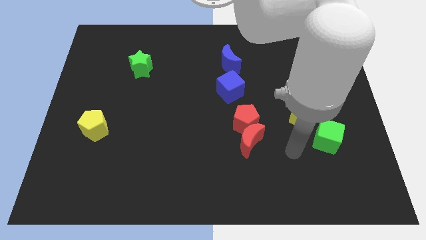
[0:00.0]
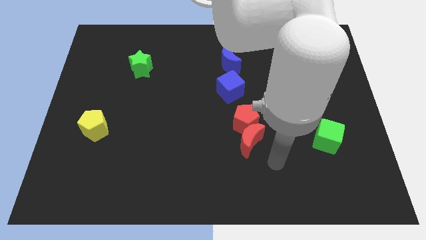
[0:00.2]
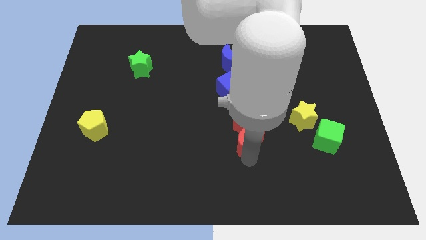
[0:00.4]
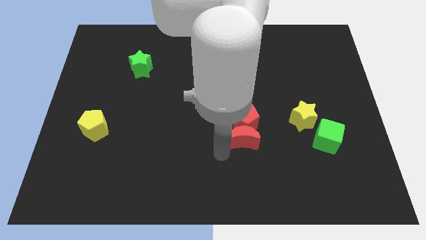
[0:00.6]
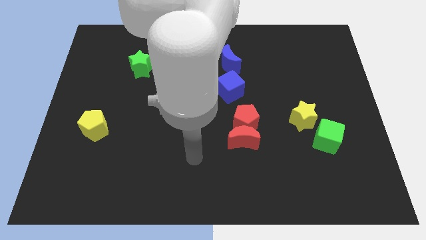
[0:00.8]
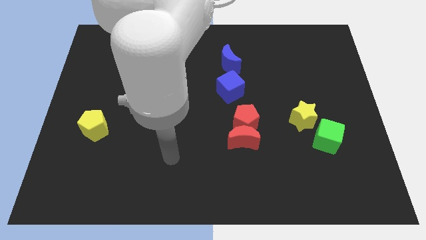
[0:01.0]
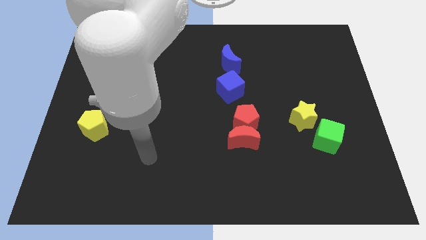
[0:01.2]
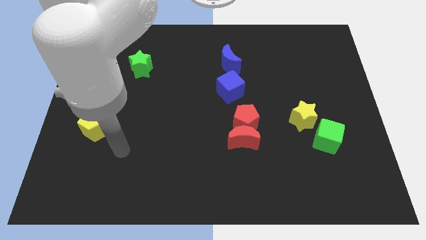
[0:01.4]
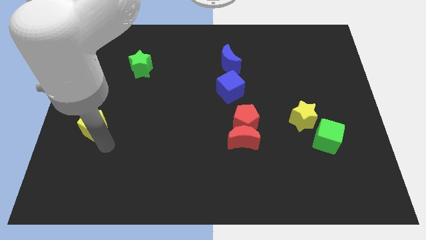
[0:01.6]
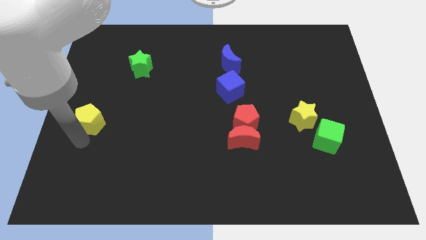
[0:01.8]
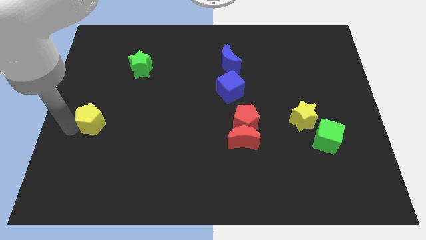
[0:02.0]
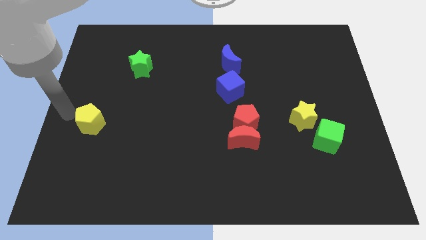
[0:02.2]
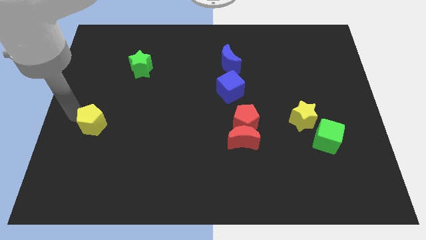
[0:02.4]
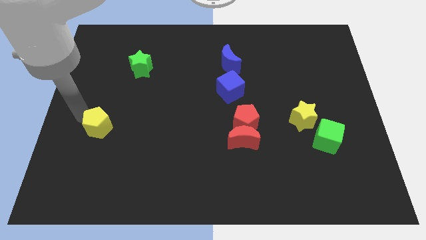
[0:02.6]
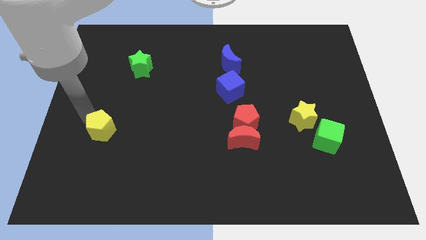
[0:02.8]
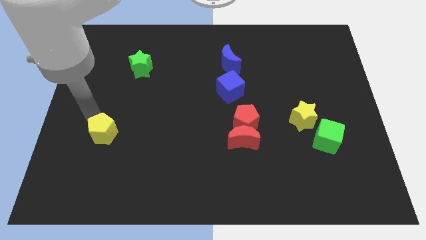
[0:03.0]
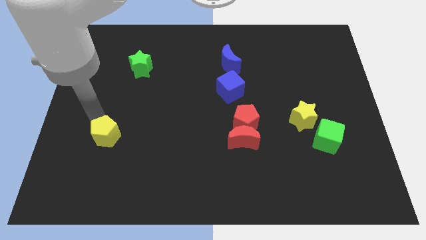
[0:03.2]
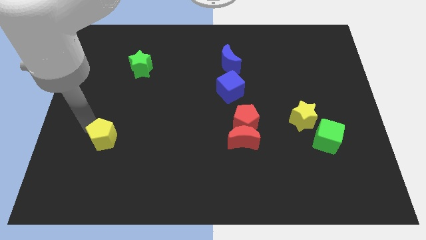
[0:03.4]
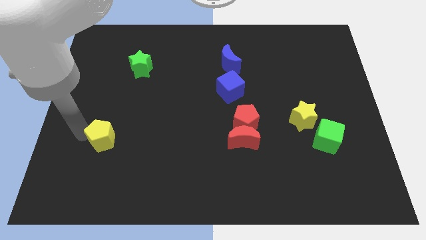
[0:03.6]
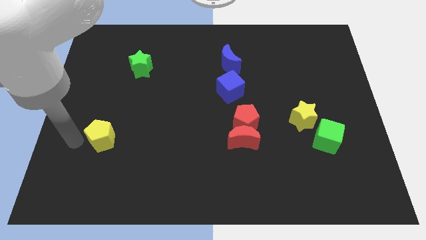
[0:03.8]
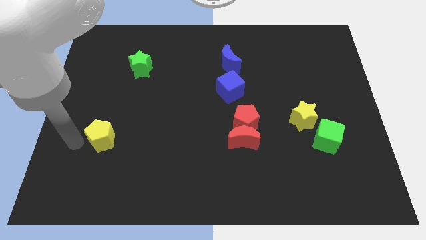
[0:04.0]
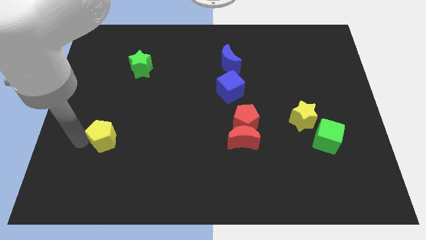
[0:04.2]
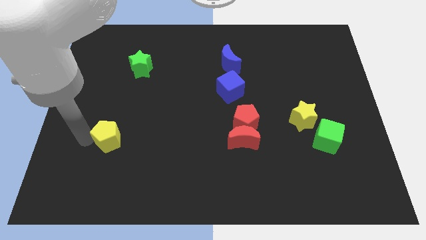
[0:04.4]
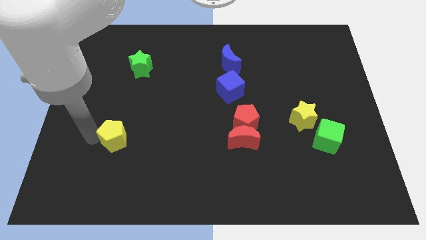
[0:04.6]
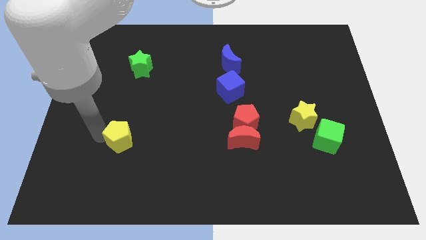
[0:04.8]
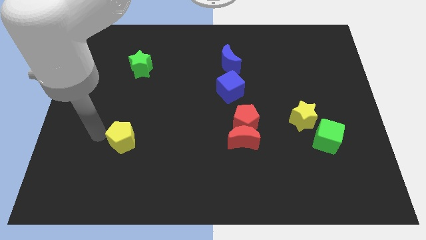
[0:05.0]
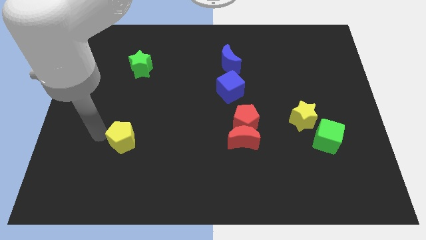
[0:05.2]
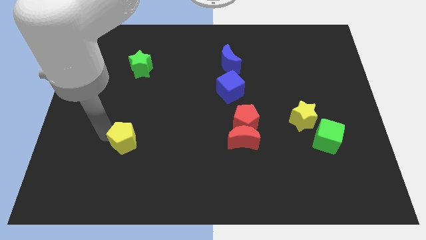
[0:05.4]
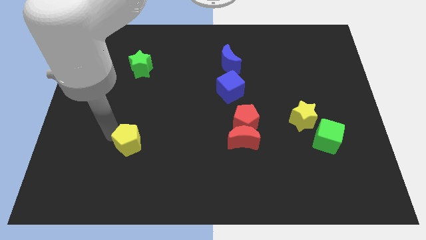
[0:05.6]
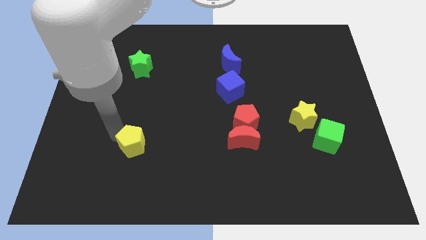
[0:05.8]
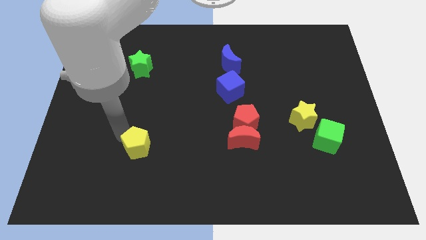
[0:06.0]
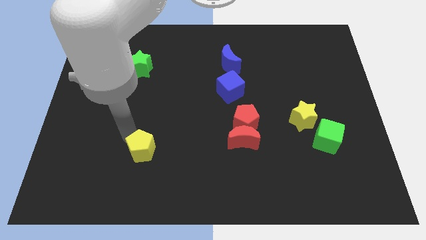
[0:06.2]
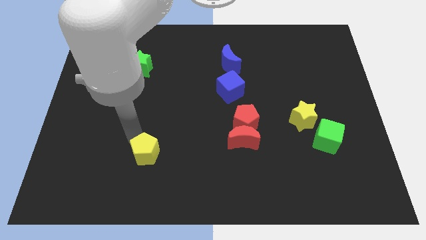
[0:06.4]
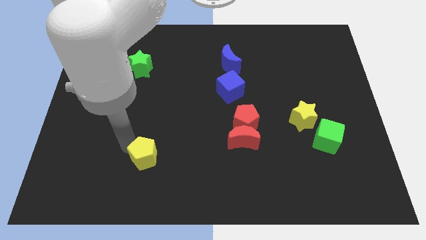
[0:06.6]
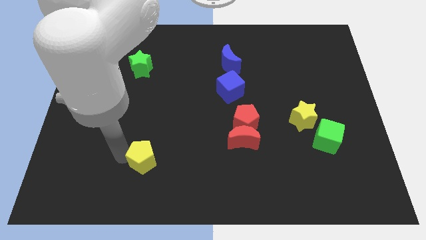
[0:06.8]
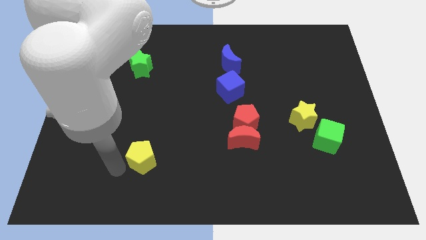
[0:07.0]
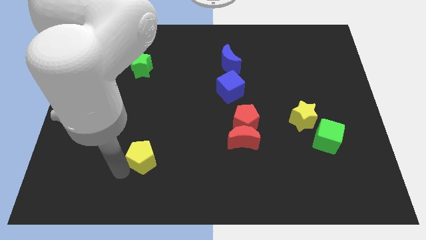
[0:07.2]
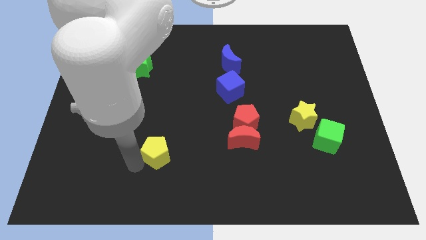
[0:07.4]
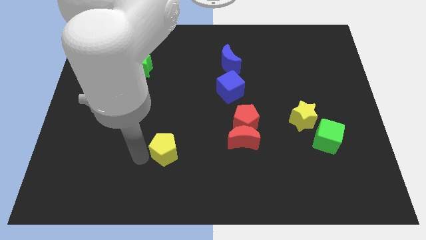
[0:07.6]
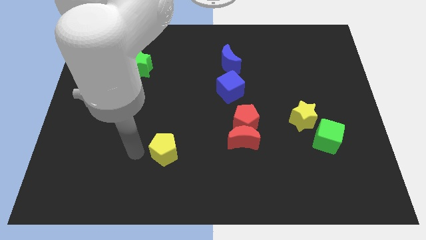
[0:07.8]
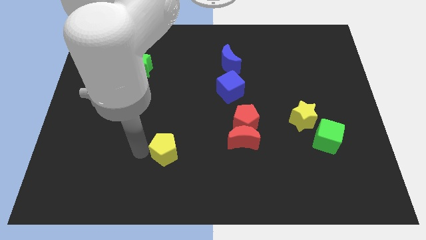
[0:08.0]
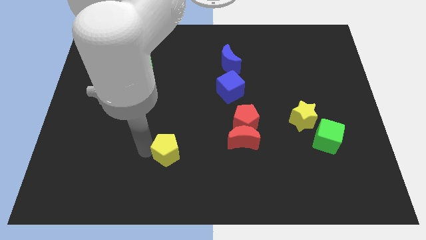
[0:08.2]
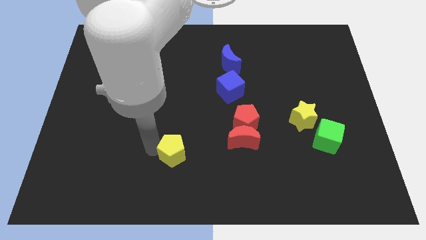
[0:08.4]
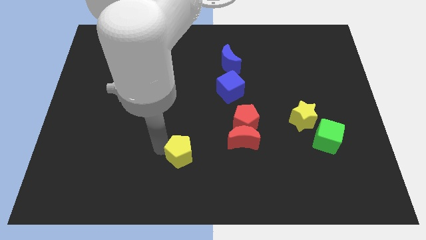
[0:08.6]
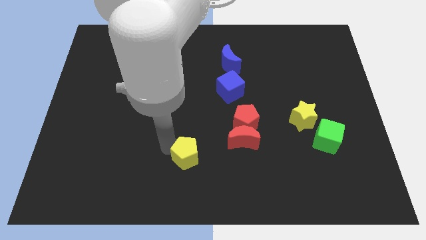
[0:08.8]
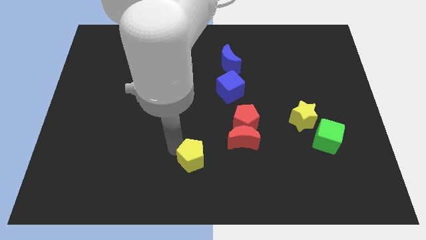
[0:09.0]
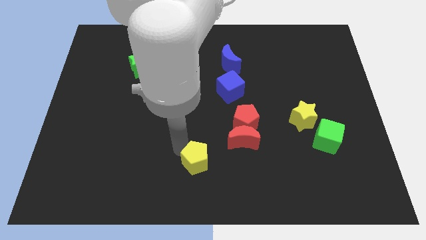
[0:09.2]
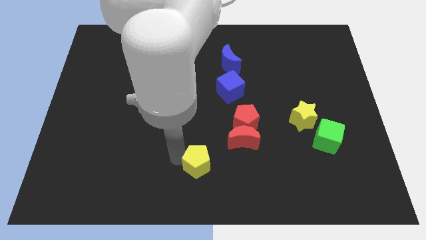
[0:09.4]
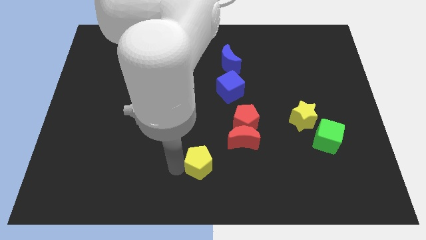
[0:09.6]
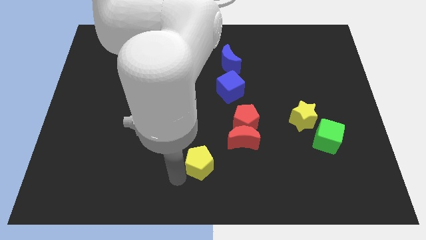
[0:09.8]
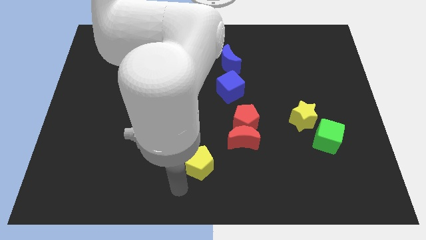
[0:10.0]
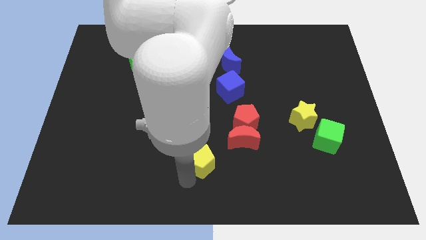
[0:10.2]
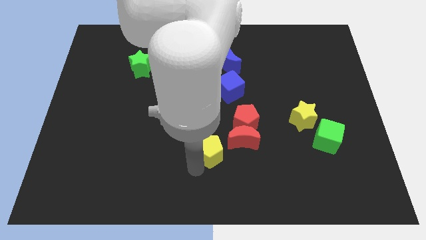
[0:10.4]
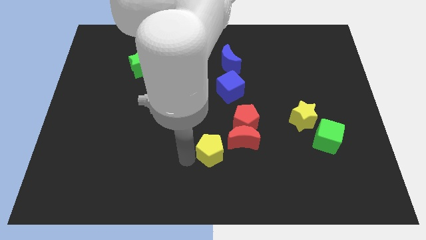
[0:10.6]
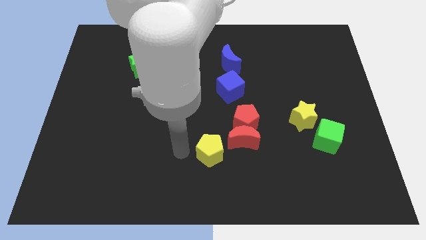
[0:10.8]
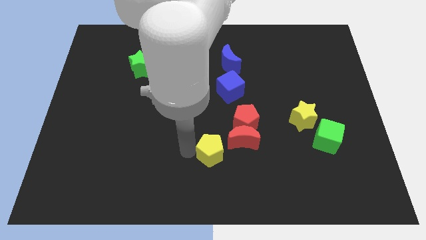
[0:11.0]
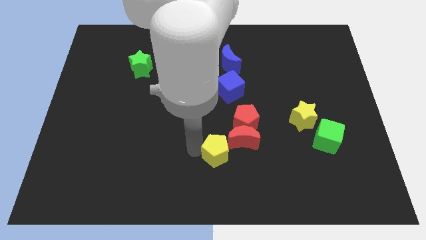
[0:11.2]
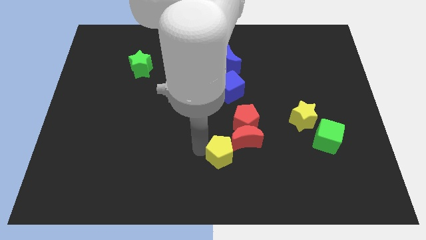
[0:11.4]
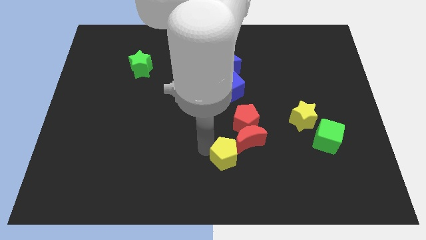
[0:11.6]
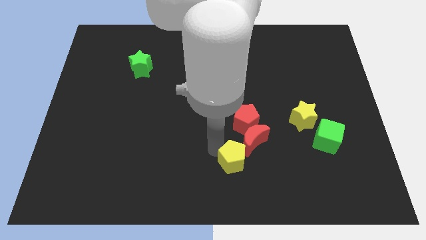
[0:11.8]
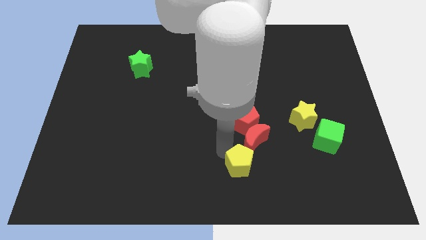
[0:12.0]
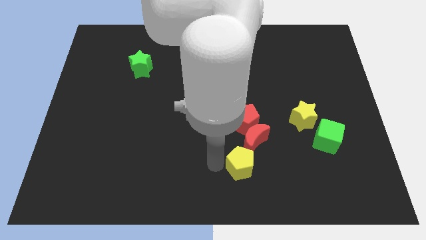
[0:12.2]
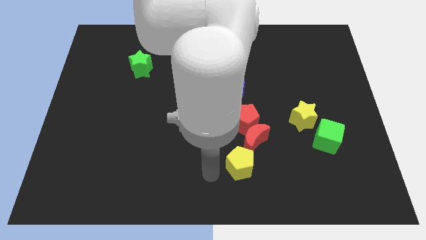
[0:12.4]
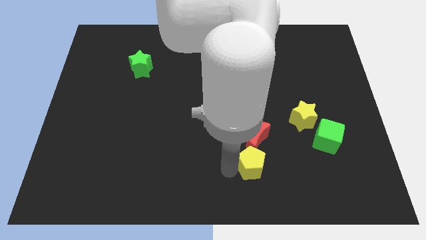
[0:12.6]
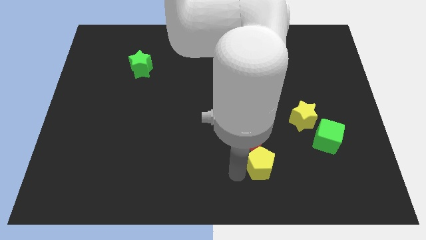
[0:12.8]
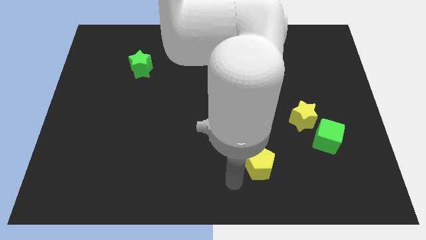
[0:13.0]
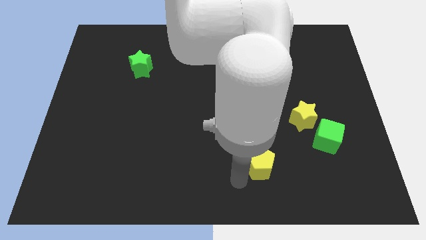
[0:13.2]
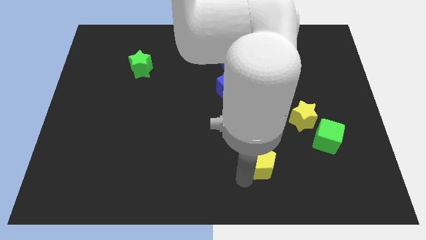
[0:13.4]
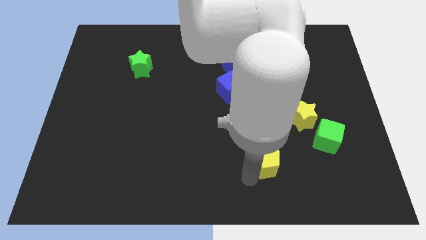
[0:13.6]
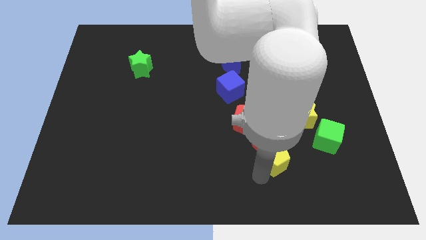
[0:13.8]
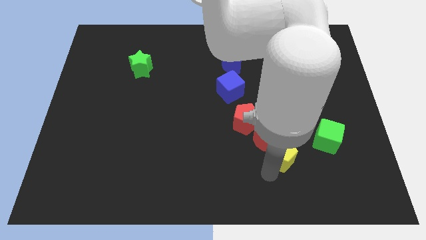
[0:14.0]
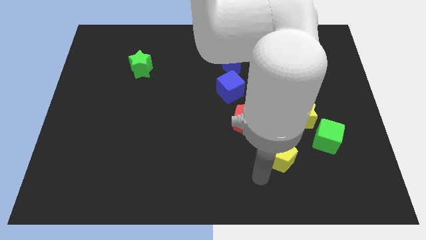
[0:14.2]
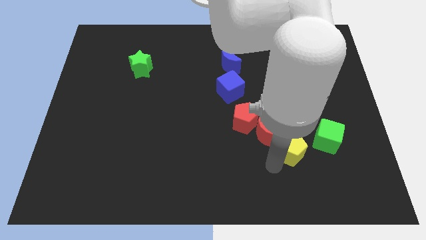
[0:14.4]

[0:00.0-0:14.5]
move the yellow pentagon just right of the red moon
